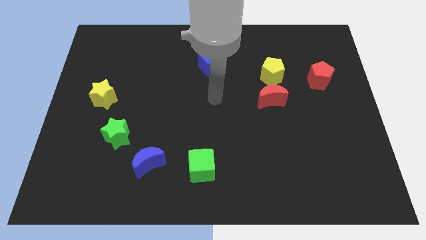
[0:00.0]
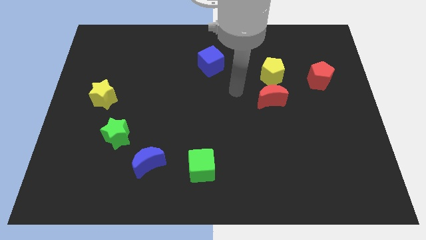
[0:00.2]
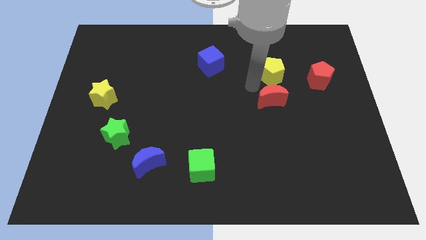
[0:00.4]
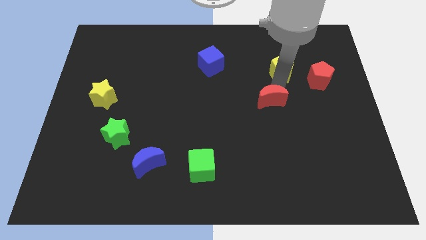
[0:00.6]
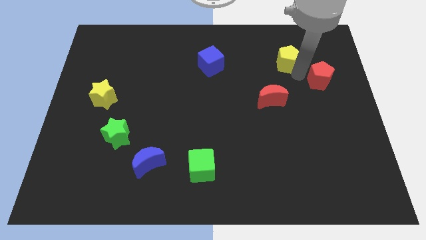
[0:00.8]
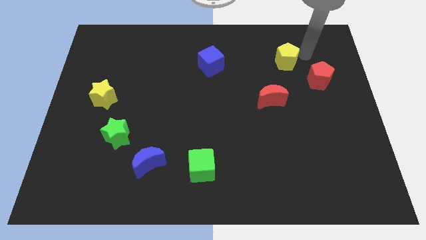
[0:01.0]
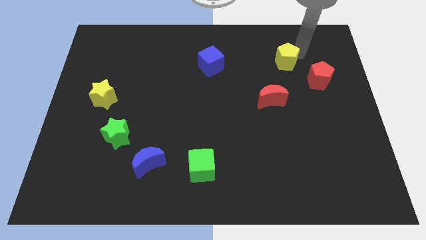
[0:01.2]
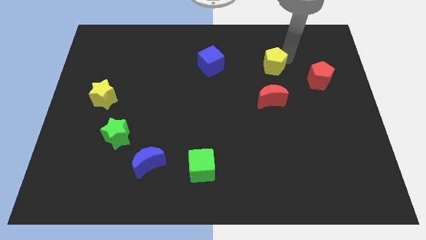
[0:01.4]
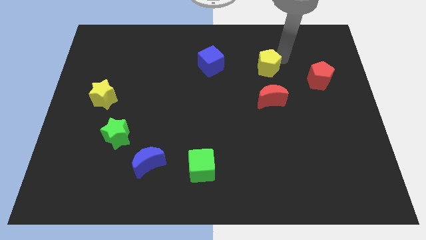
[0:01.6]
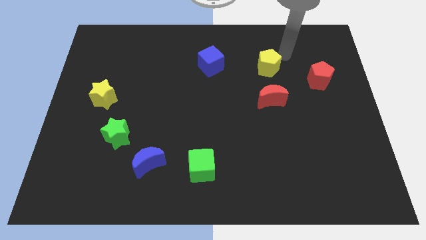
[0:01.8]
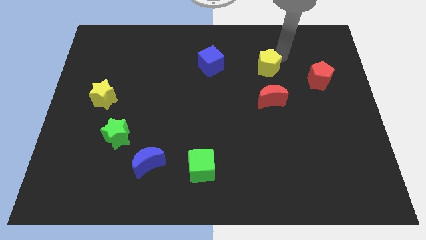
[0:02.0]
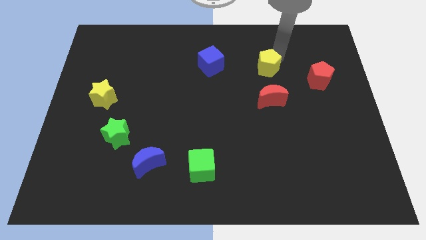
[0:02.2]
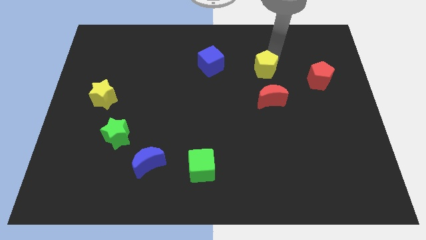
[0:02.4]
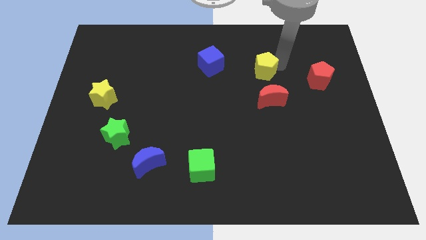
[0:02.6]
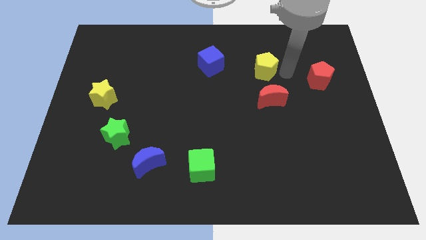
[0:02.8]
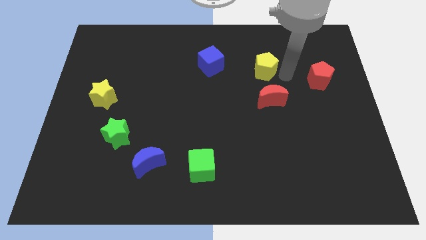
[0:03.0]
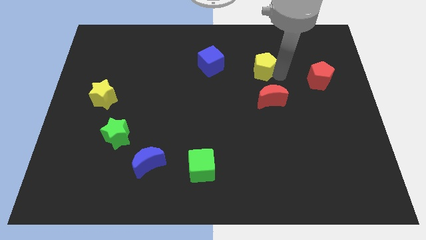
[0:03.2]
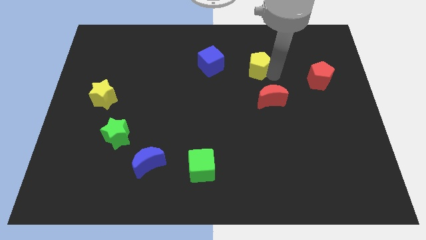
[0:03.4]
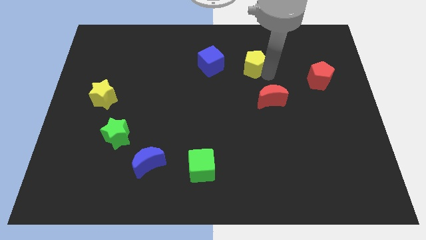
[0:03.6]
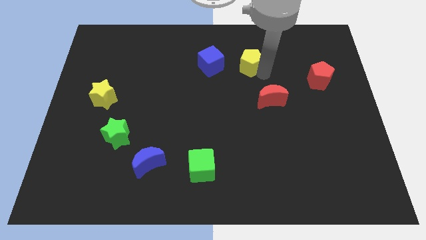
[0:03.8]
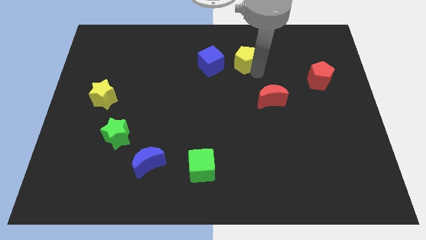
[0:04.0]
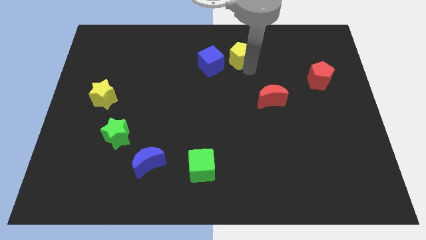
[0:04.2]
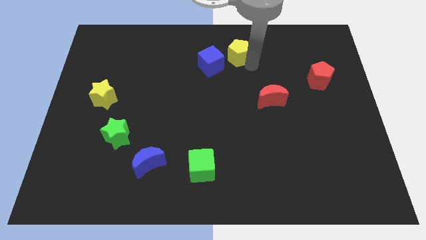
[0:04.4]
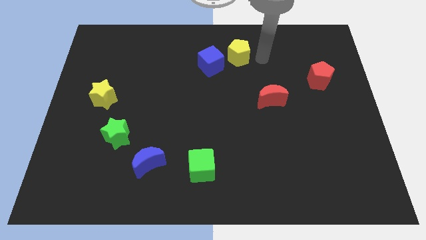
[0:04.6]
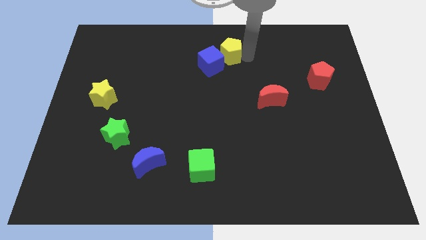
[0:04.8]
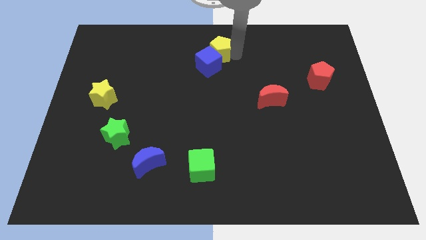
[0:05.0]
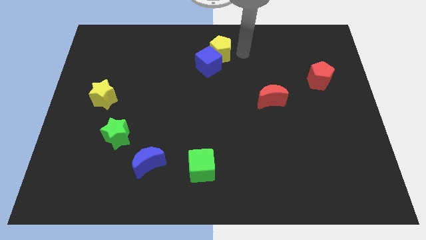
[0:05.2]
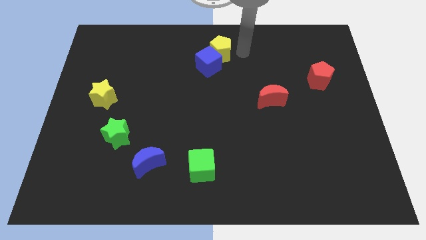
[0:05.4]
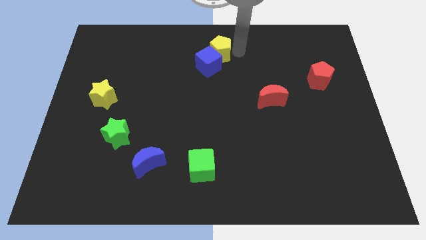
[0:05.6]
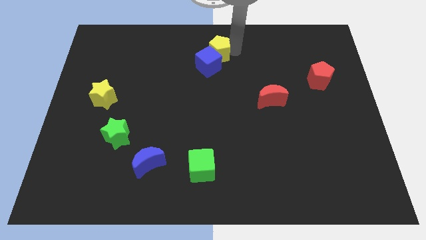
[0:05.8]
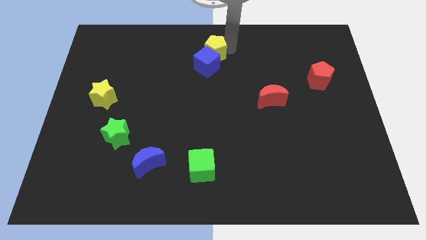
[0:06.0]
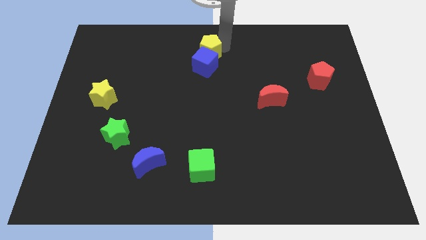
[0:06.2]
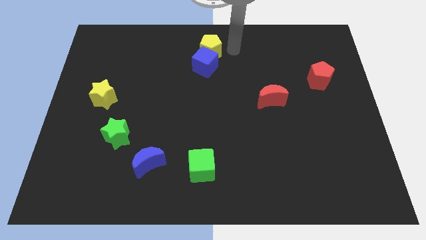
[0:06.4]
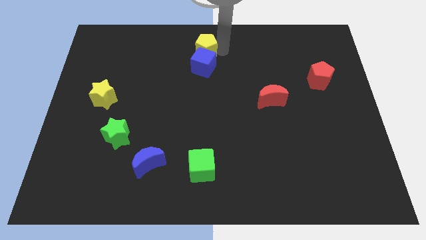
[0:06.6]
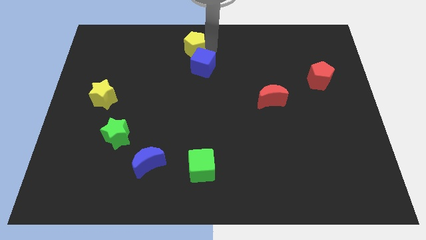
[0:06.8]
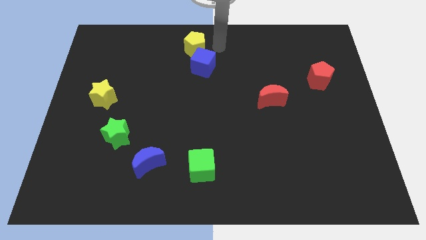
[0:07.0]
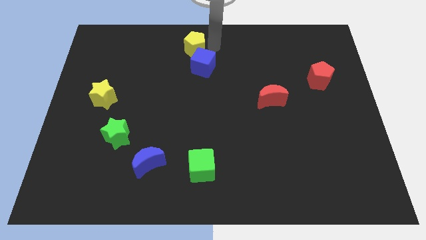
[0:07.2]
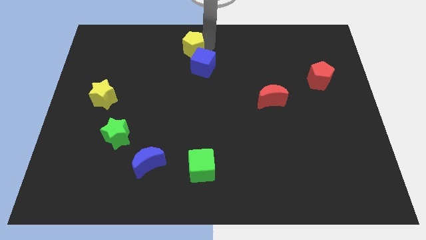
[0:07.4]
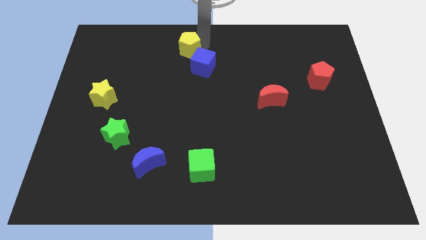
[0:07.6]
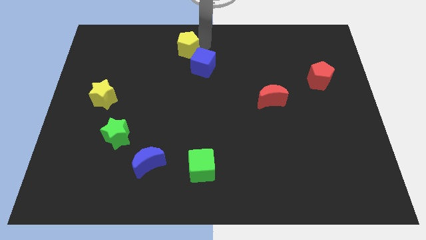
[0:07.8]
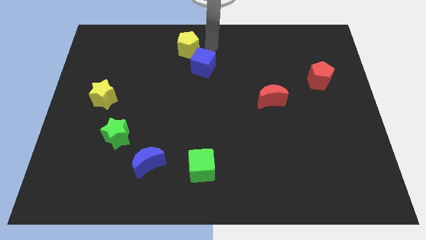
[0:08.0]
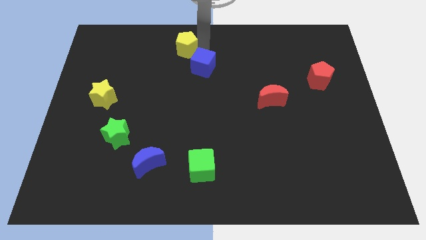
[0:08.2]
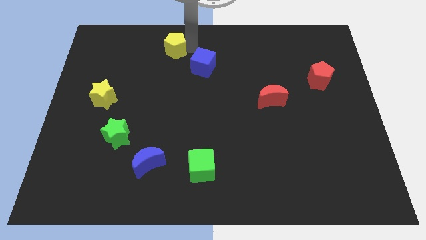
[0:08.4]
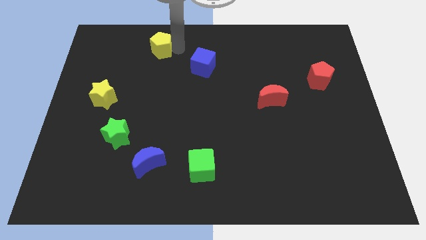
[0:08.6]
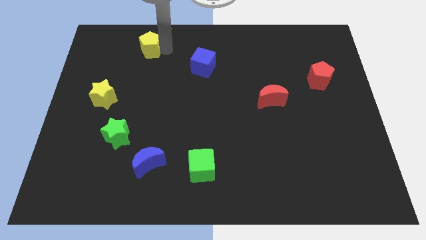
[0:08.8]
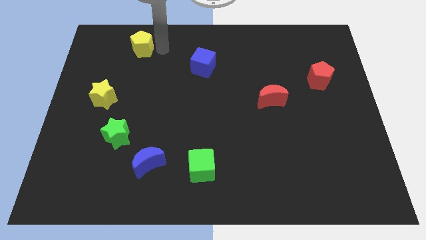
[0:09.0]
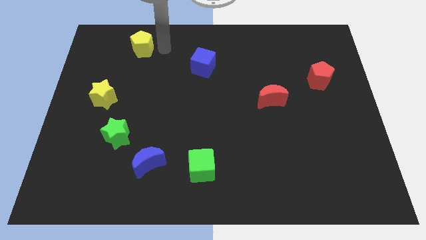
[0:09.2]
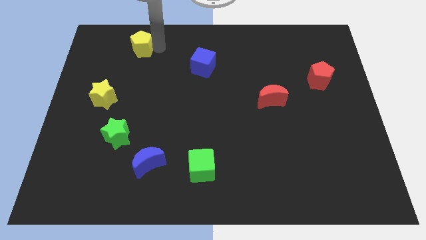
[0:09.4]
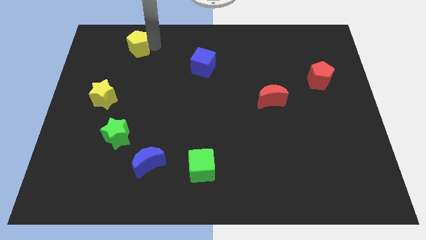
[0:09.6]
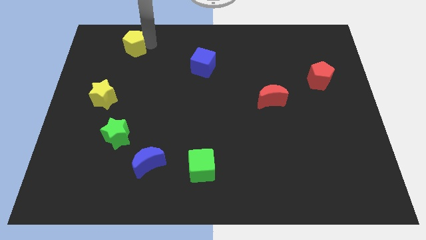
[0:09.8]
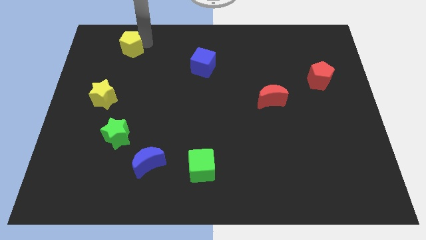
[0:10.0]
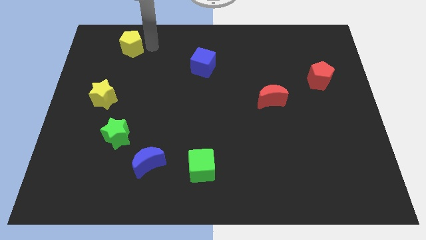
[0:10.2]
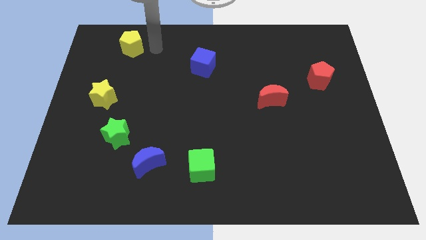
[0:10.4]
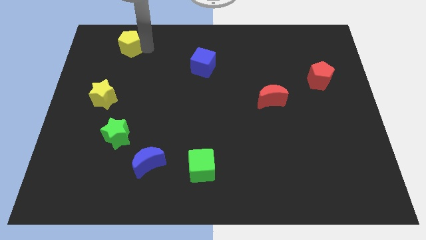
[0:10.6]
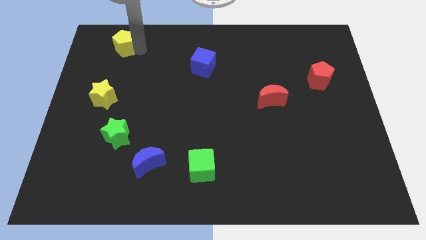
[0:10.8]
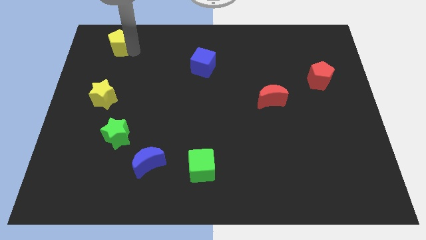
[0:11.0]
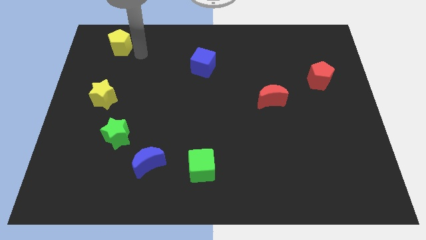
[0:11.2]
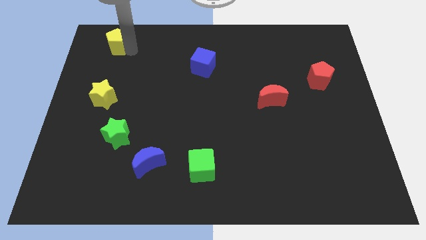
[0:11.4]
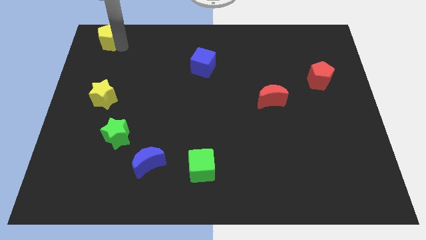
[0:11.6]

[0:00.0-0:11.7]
move the yellow pentagon to the upper left corner

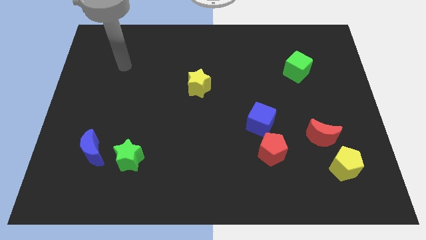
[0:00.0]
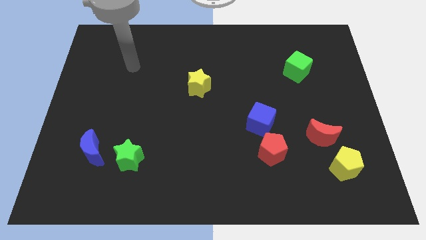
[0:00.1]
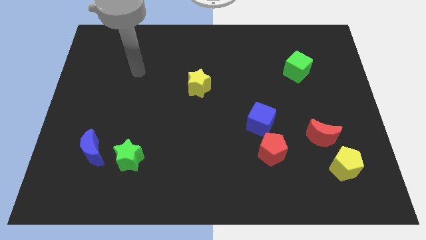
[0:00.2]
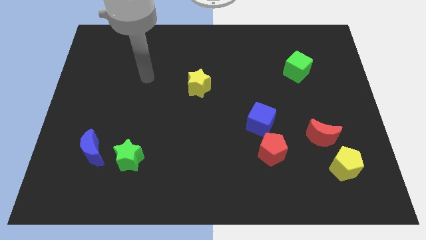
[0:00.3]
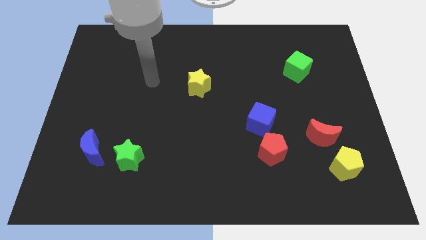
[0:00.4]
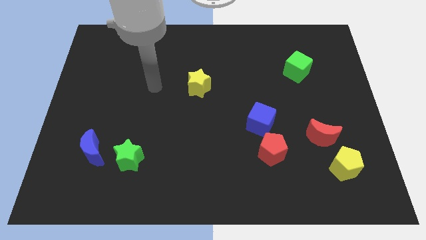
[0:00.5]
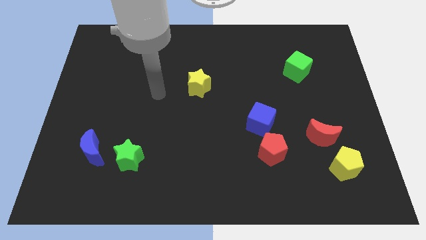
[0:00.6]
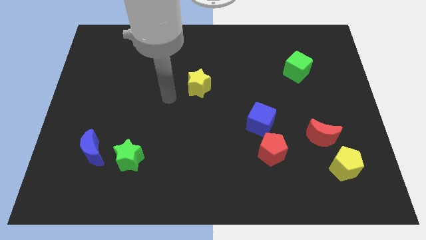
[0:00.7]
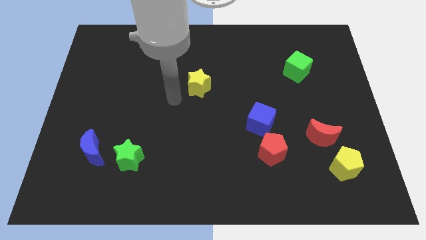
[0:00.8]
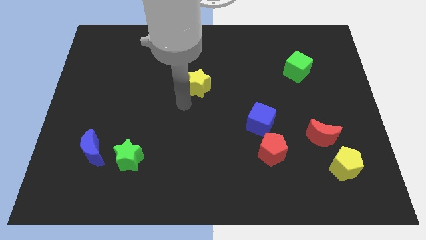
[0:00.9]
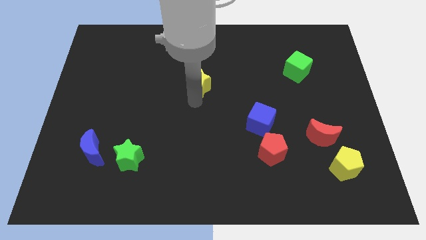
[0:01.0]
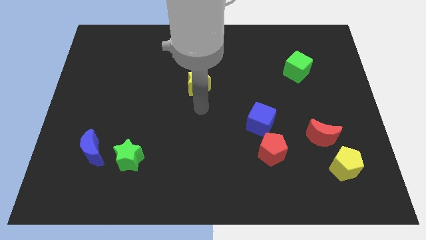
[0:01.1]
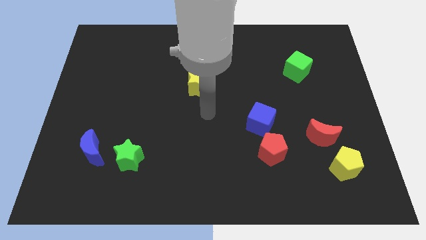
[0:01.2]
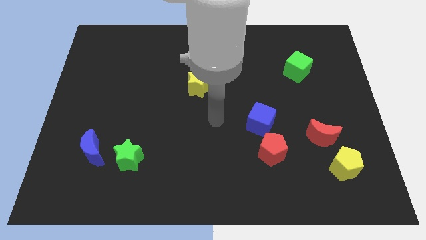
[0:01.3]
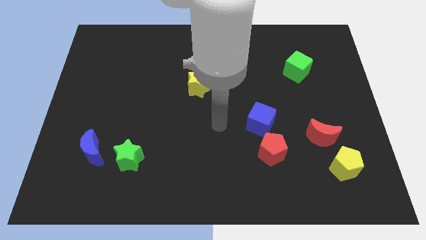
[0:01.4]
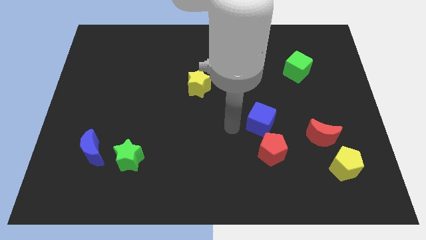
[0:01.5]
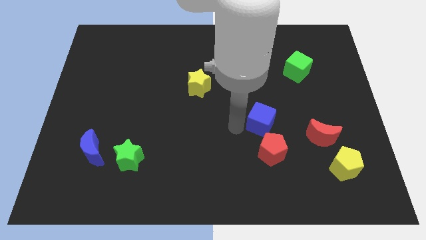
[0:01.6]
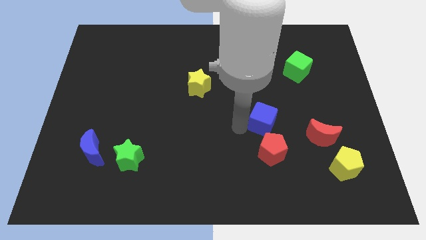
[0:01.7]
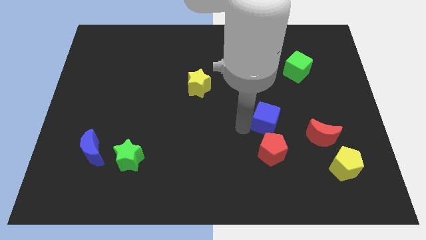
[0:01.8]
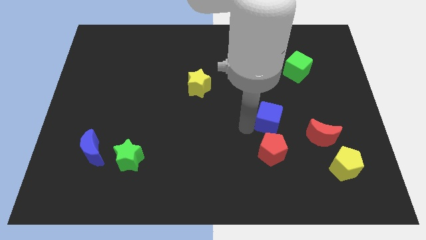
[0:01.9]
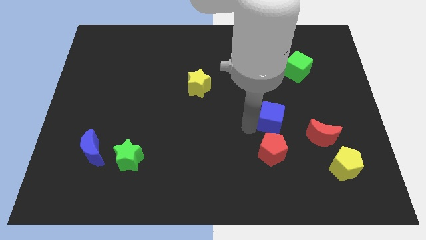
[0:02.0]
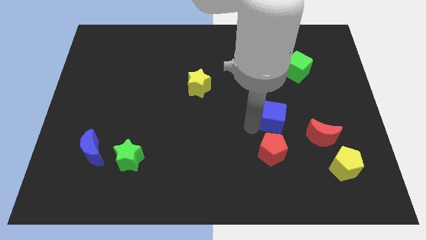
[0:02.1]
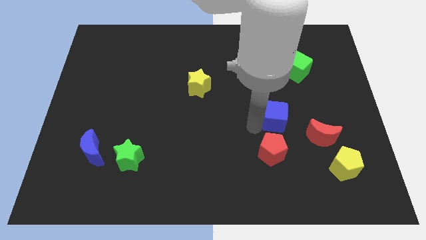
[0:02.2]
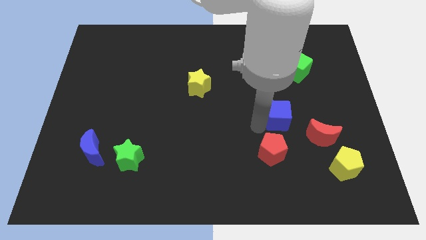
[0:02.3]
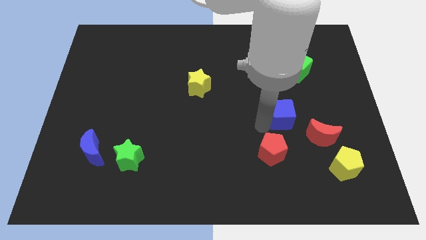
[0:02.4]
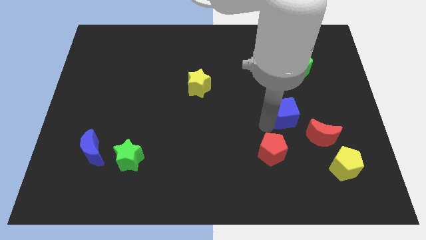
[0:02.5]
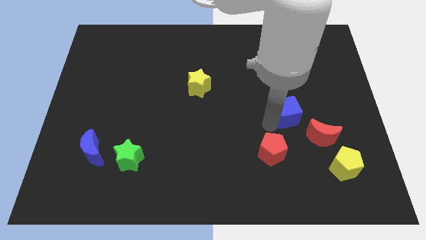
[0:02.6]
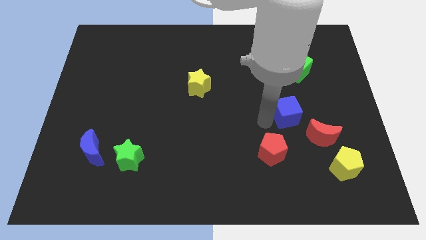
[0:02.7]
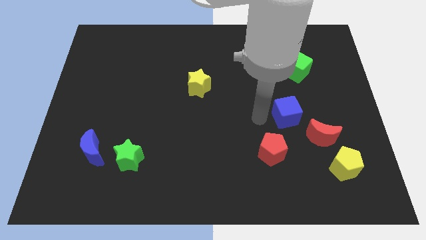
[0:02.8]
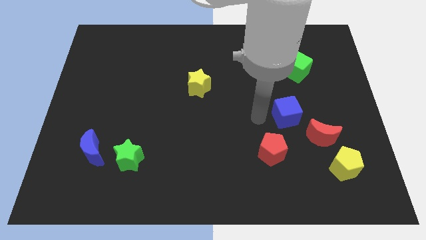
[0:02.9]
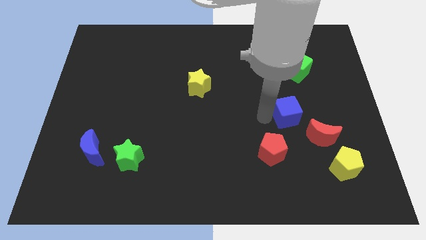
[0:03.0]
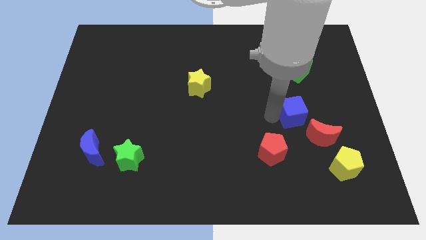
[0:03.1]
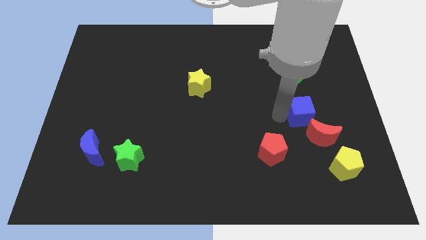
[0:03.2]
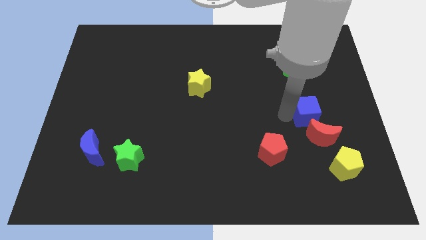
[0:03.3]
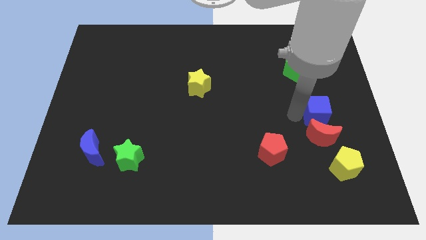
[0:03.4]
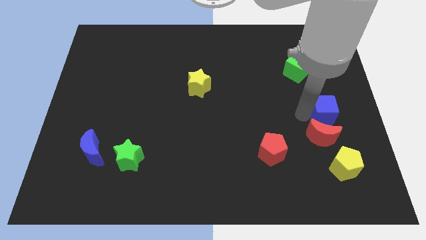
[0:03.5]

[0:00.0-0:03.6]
push the blue cube to the right side
